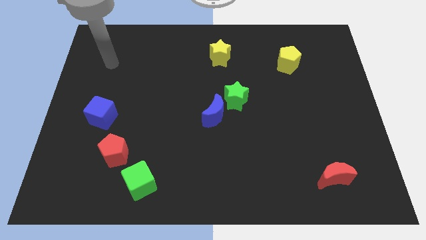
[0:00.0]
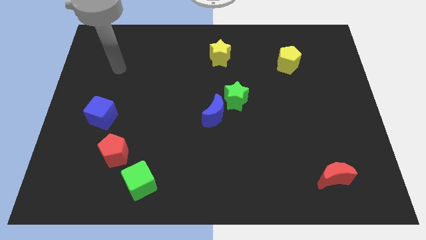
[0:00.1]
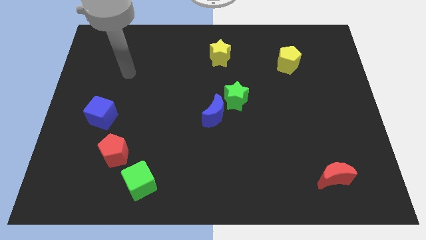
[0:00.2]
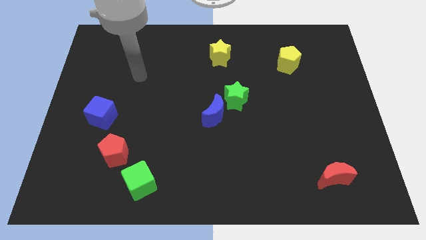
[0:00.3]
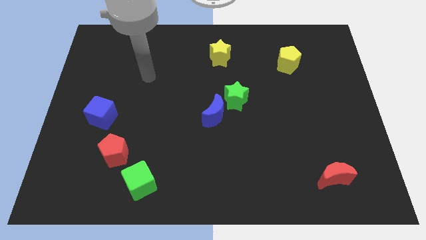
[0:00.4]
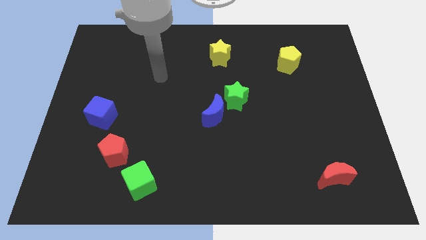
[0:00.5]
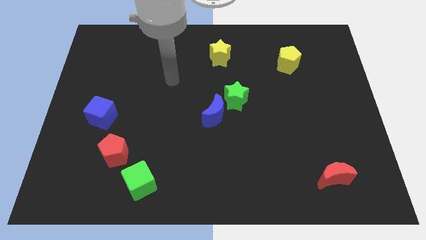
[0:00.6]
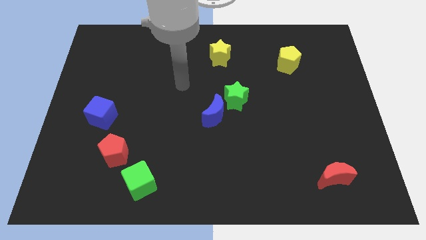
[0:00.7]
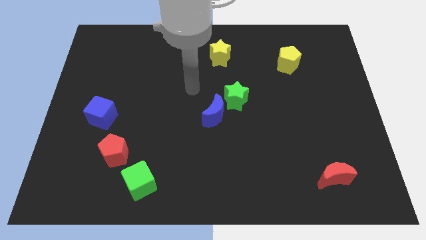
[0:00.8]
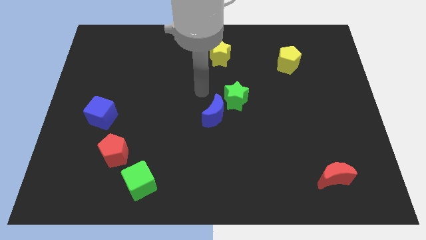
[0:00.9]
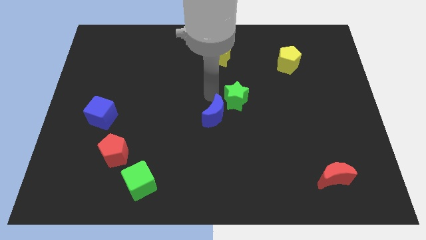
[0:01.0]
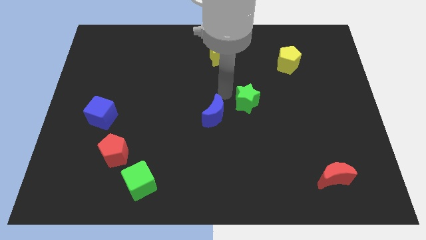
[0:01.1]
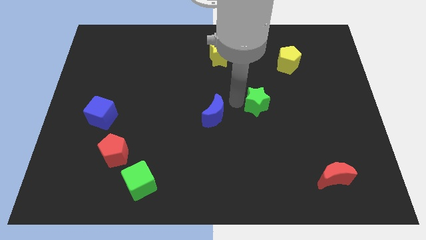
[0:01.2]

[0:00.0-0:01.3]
separate the blue moon from the green star

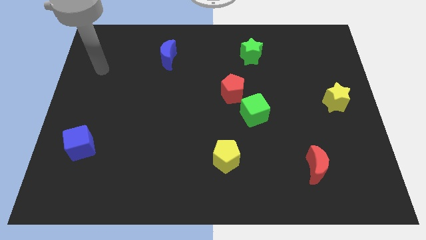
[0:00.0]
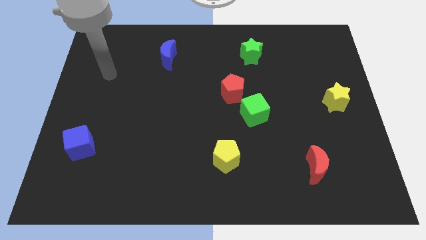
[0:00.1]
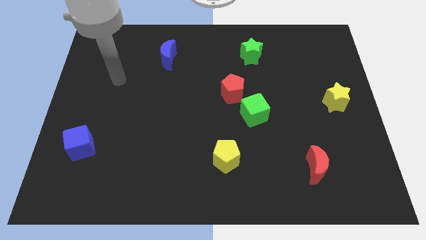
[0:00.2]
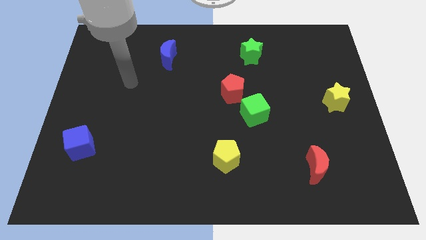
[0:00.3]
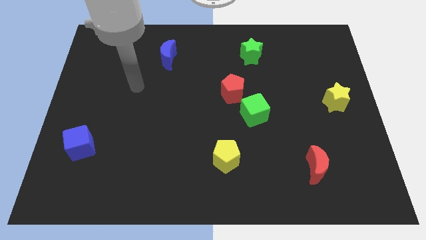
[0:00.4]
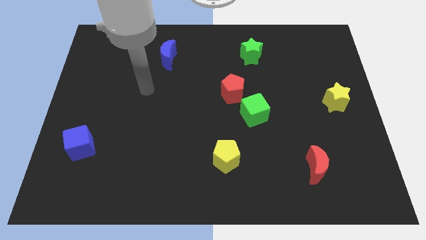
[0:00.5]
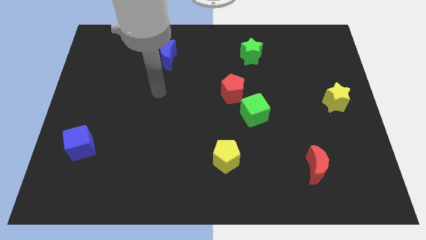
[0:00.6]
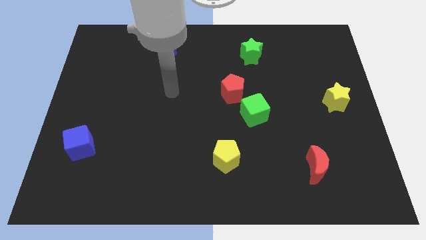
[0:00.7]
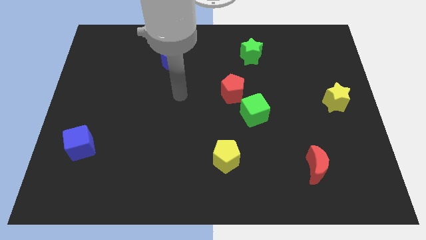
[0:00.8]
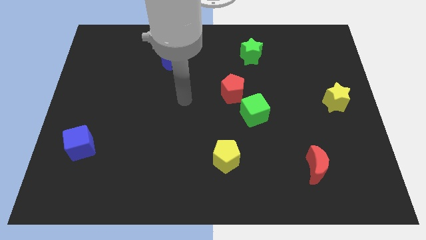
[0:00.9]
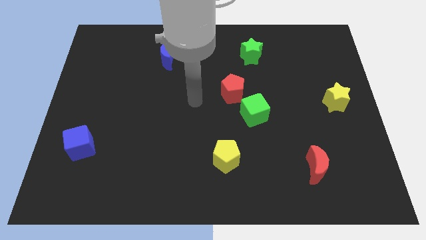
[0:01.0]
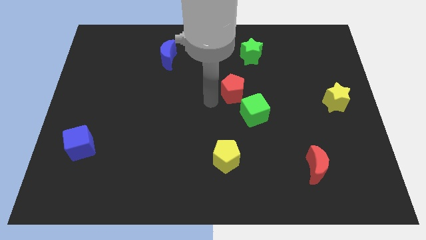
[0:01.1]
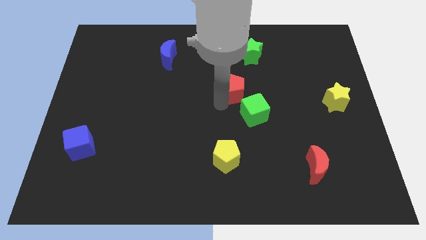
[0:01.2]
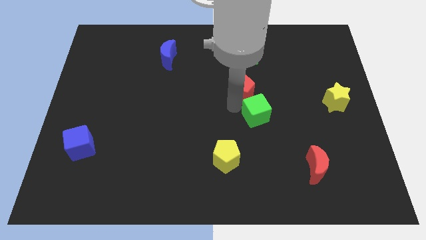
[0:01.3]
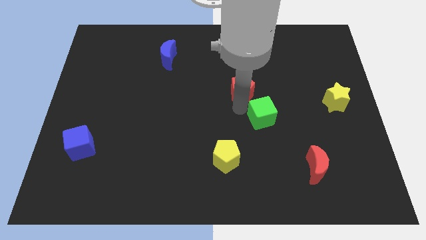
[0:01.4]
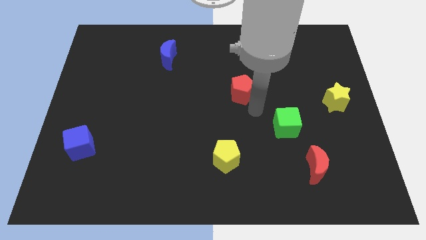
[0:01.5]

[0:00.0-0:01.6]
pull the red pentagon apart from the green cube

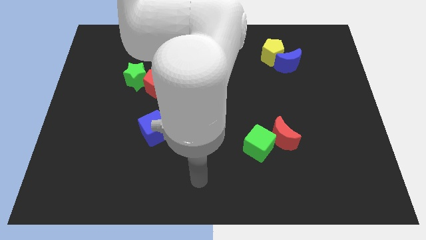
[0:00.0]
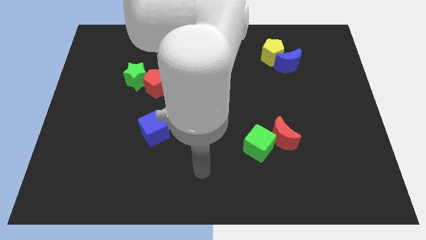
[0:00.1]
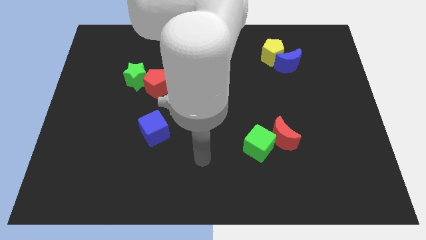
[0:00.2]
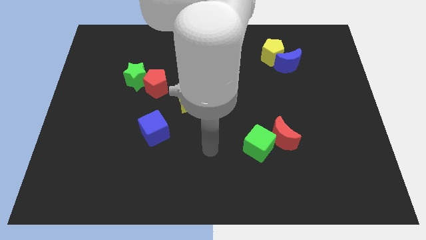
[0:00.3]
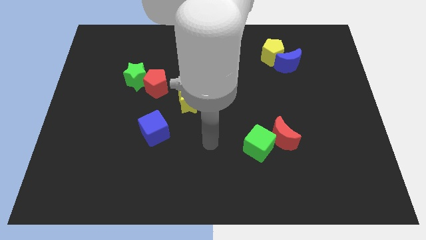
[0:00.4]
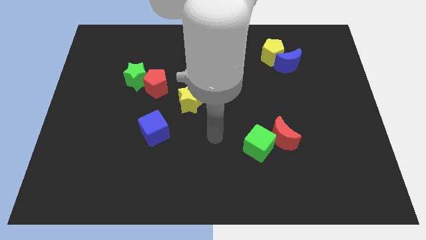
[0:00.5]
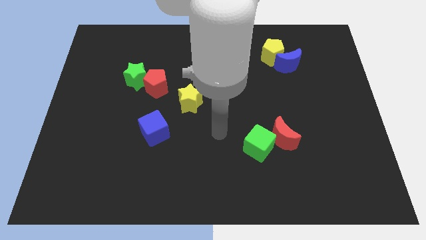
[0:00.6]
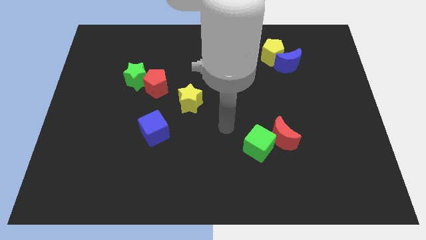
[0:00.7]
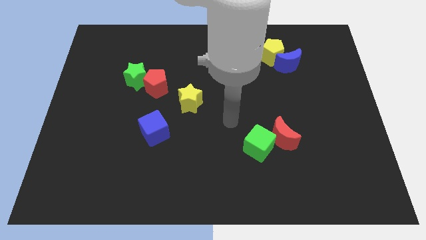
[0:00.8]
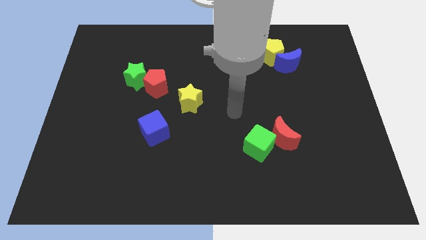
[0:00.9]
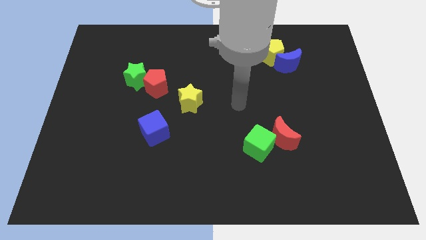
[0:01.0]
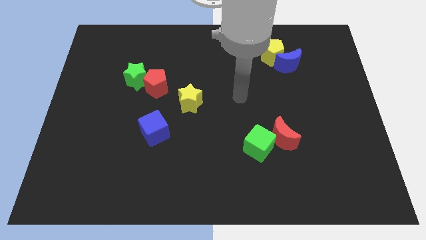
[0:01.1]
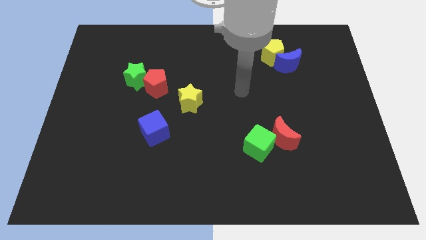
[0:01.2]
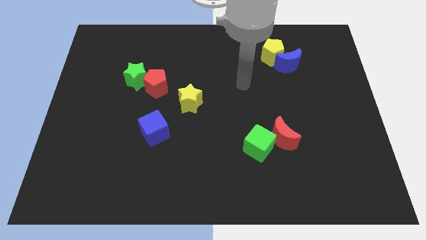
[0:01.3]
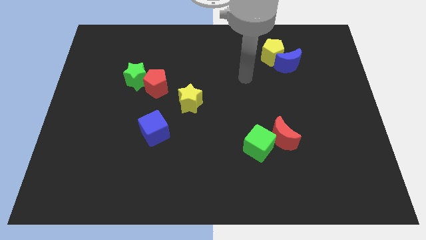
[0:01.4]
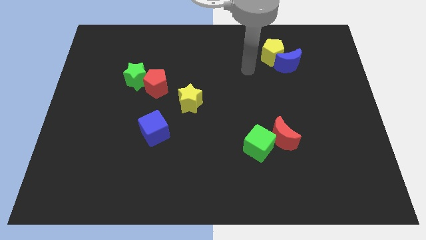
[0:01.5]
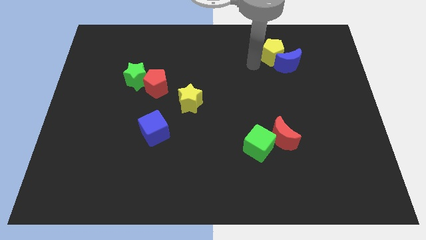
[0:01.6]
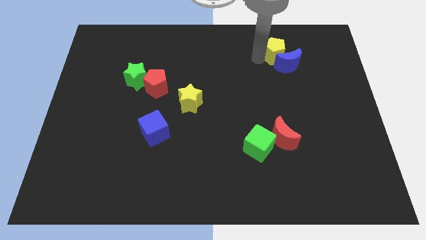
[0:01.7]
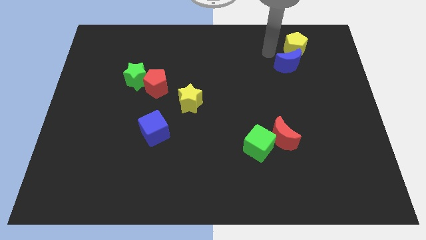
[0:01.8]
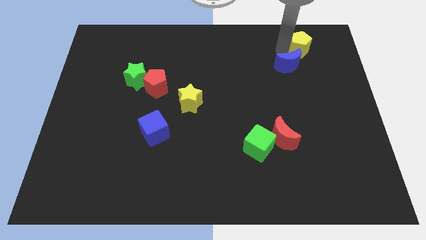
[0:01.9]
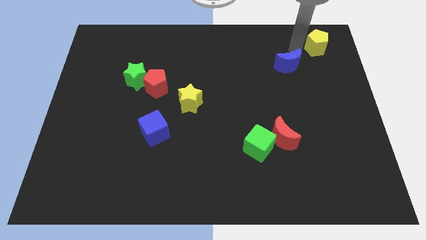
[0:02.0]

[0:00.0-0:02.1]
separate the blue moon from the yellow pentagon

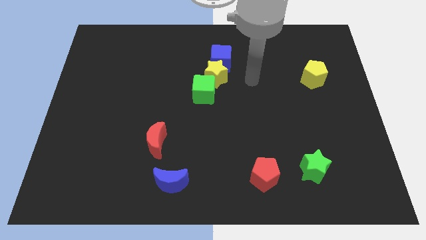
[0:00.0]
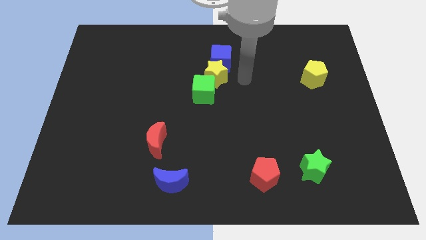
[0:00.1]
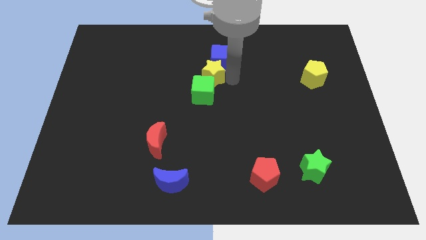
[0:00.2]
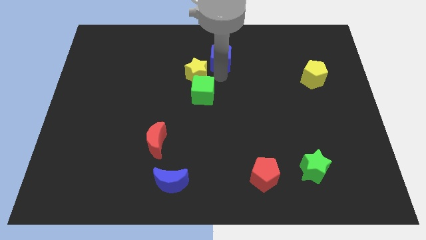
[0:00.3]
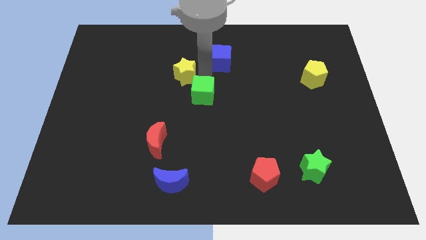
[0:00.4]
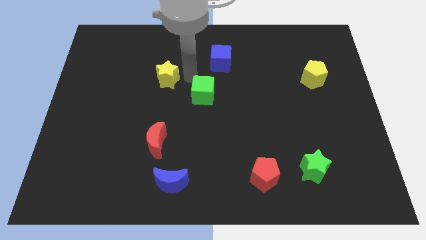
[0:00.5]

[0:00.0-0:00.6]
move the green cube away from the yellow star

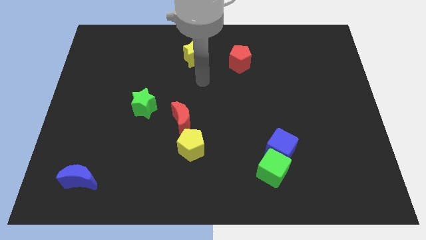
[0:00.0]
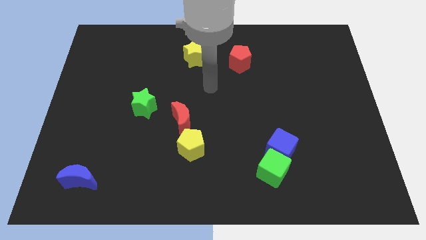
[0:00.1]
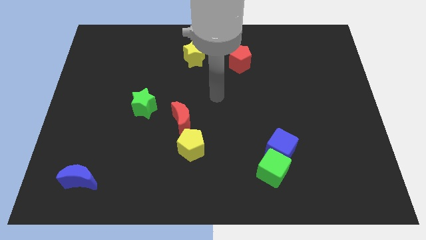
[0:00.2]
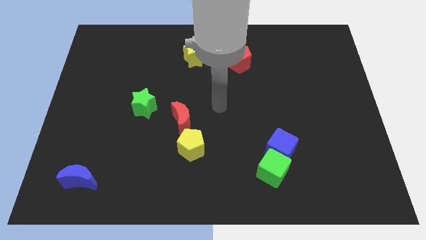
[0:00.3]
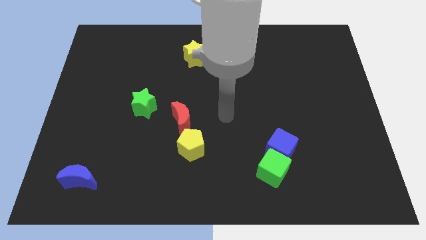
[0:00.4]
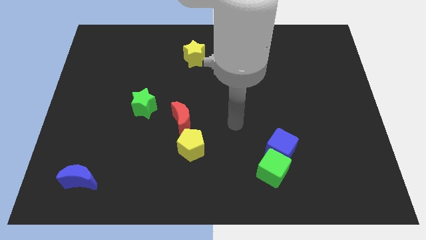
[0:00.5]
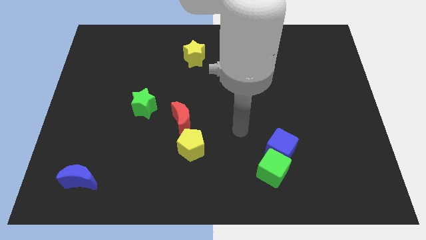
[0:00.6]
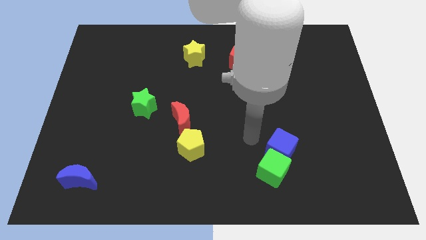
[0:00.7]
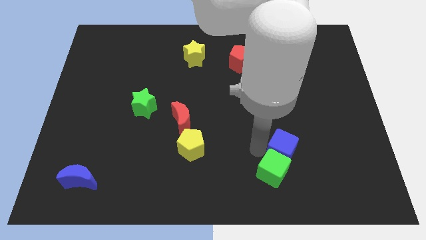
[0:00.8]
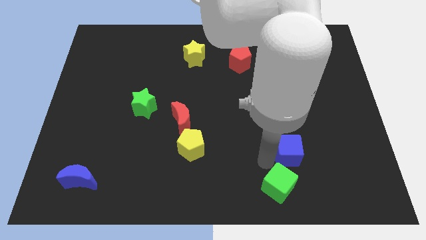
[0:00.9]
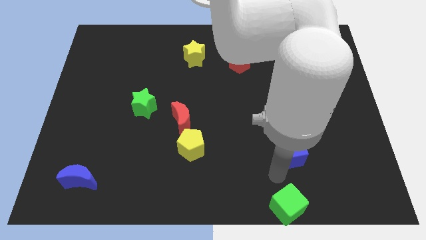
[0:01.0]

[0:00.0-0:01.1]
move the blue cube away from the green cube

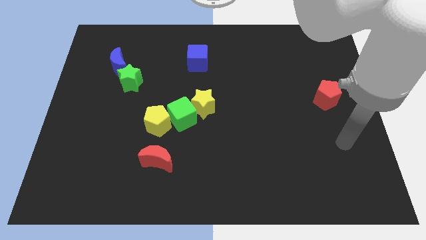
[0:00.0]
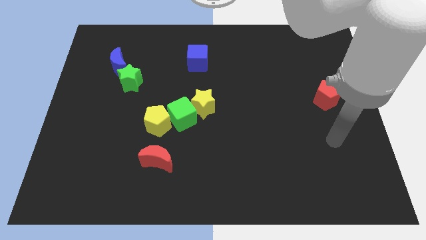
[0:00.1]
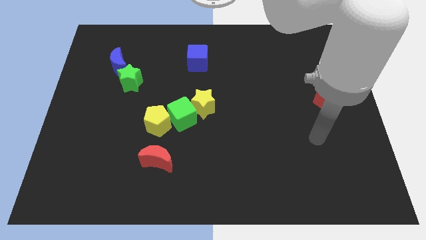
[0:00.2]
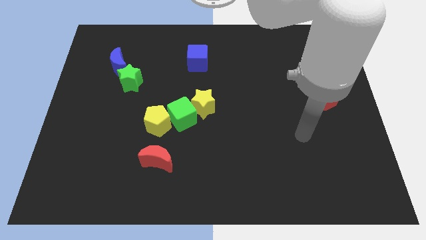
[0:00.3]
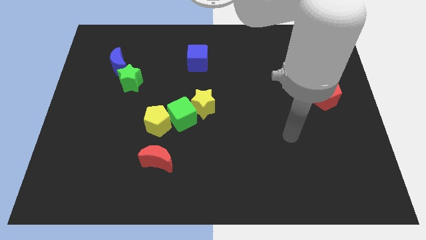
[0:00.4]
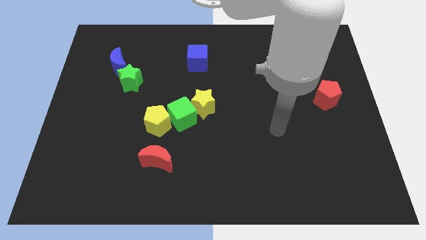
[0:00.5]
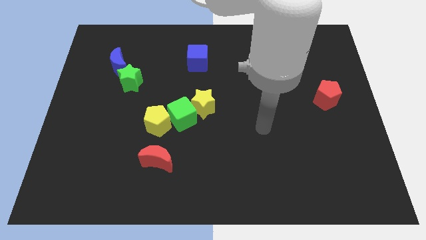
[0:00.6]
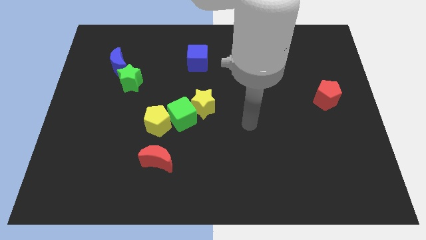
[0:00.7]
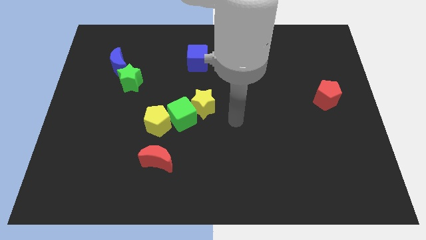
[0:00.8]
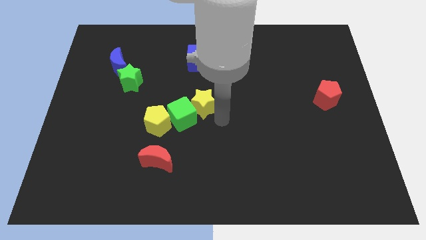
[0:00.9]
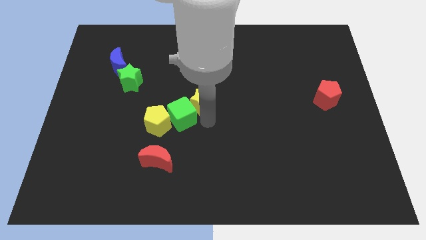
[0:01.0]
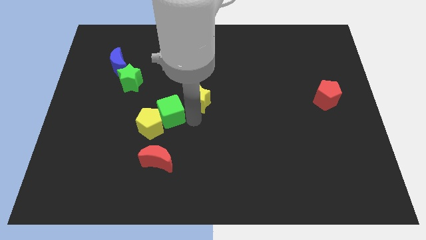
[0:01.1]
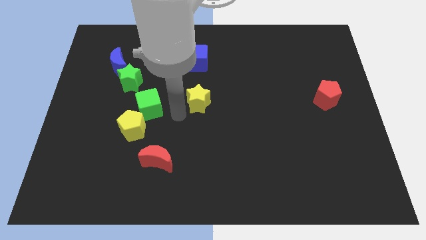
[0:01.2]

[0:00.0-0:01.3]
separate the yellow star from the green cube

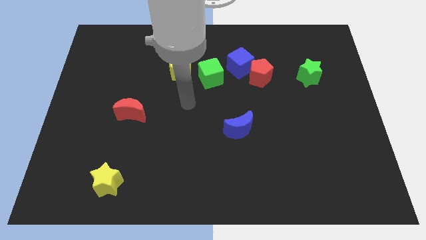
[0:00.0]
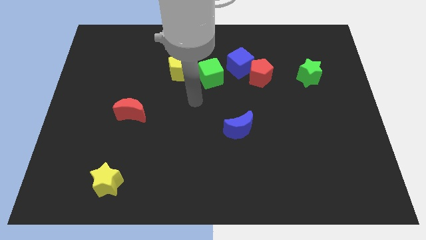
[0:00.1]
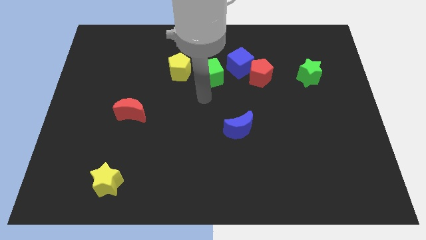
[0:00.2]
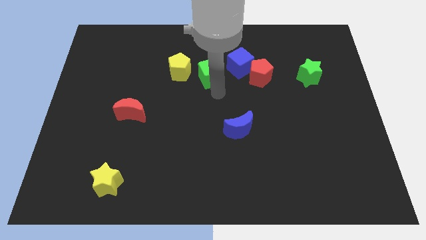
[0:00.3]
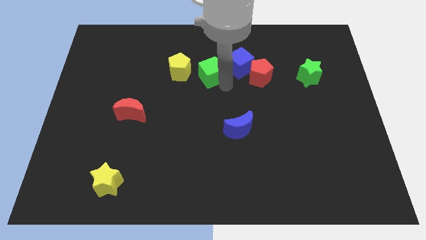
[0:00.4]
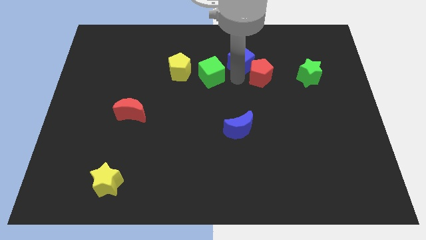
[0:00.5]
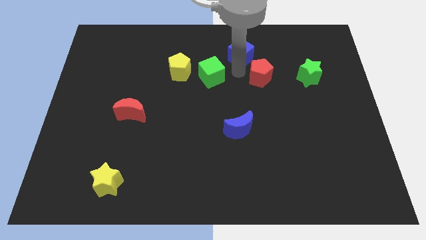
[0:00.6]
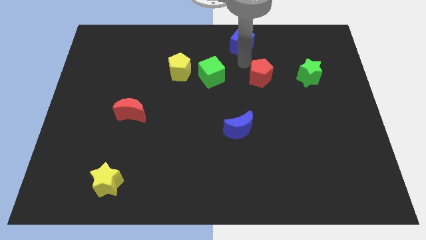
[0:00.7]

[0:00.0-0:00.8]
pull the red pentagon apart from the blue cube

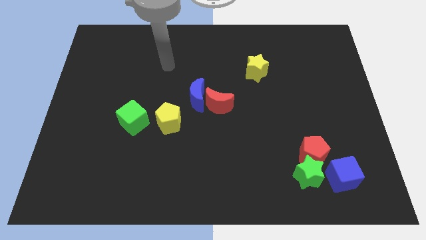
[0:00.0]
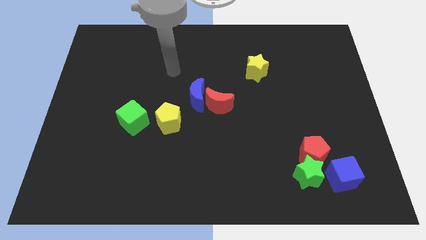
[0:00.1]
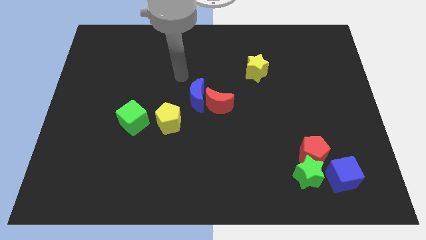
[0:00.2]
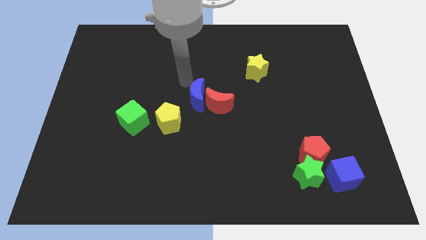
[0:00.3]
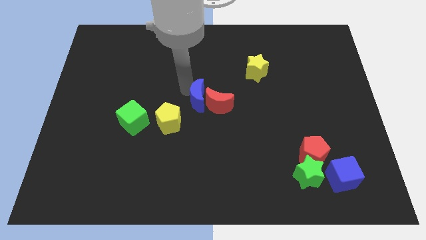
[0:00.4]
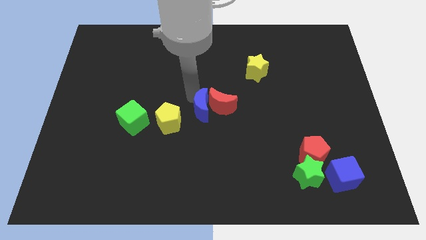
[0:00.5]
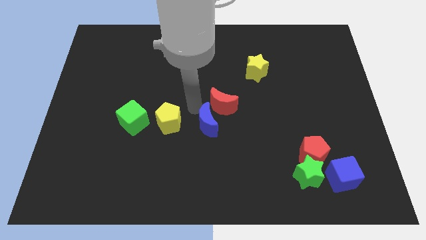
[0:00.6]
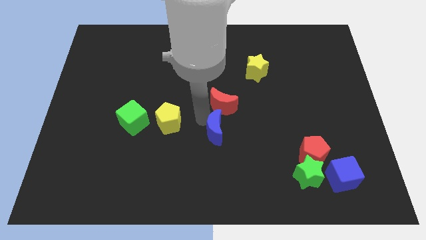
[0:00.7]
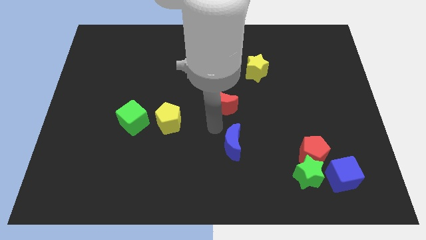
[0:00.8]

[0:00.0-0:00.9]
pull the red moon apart from the blue moon
